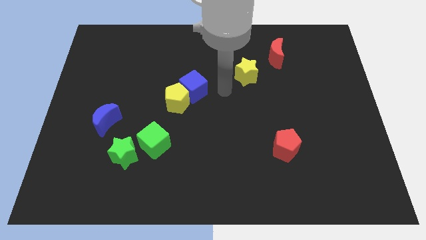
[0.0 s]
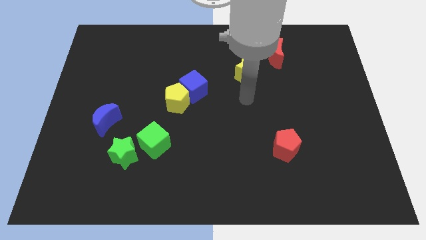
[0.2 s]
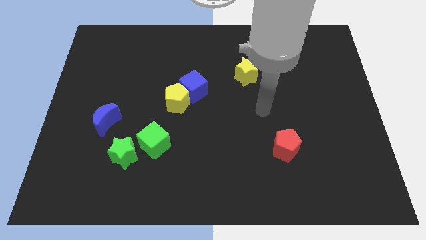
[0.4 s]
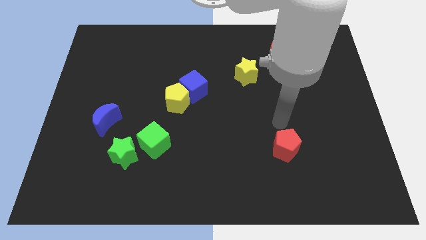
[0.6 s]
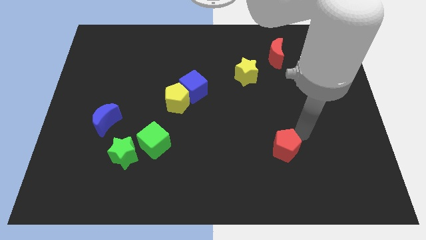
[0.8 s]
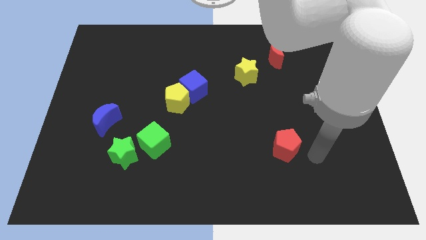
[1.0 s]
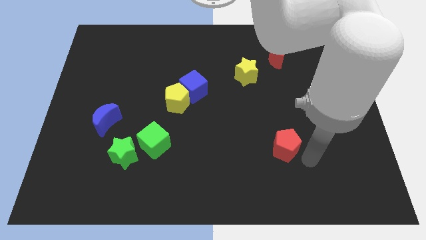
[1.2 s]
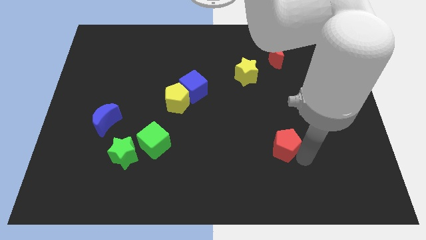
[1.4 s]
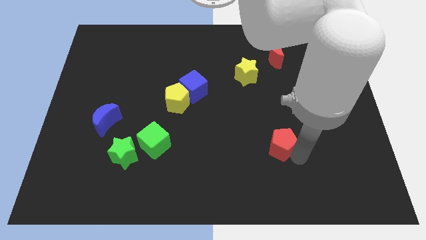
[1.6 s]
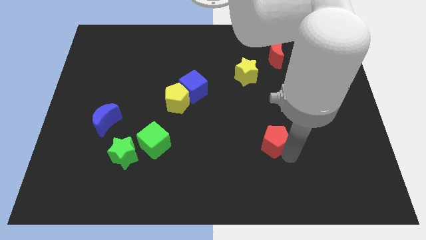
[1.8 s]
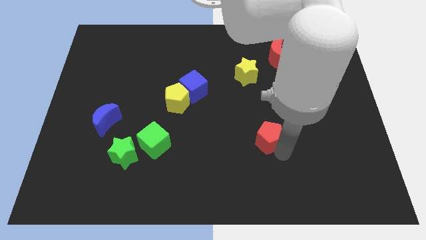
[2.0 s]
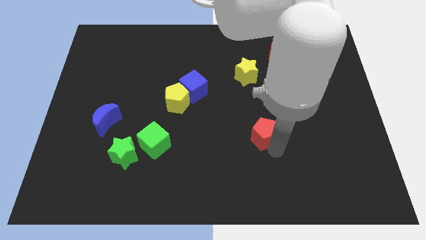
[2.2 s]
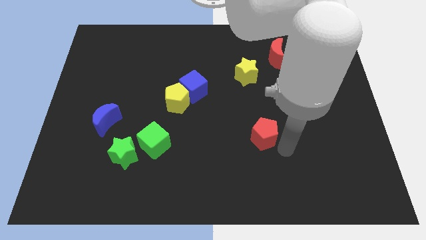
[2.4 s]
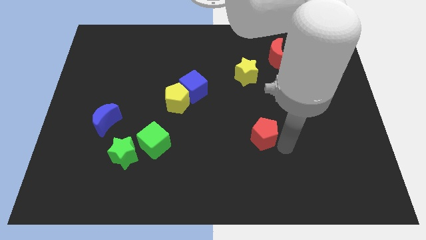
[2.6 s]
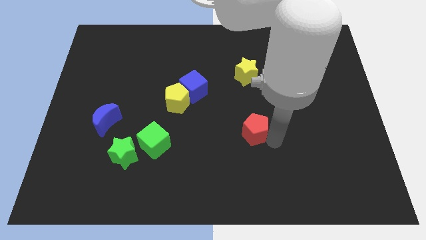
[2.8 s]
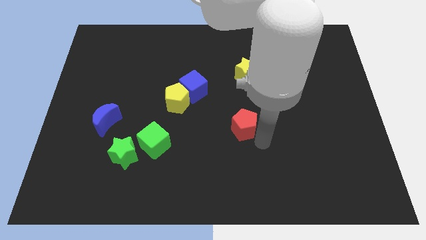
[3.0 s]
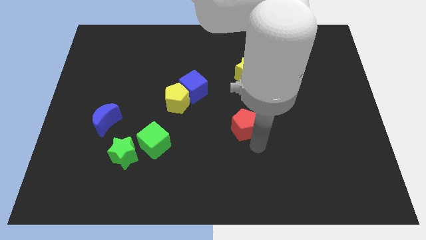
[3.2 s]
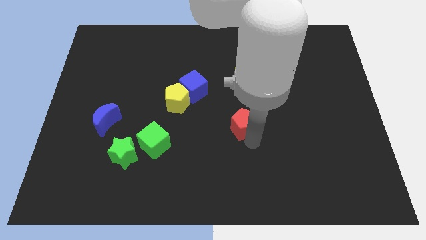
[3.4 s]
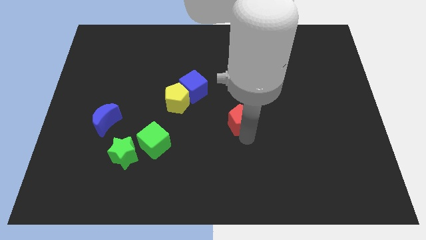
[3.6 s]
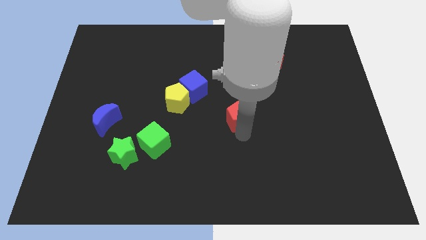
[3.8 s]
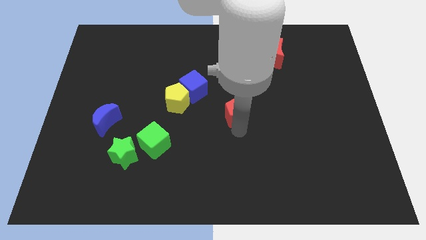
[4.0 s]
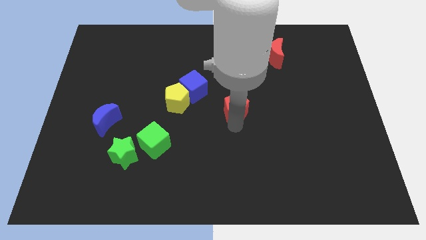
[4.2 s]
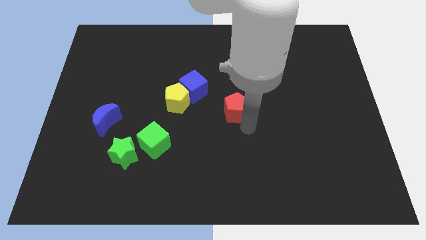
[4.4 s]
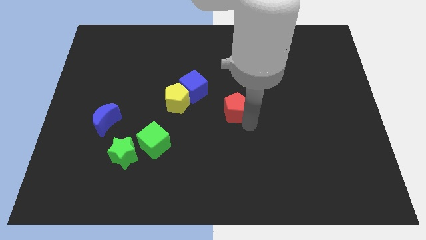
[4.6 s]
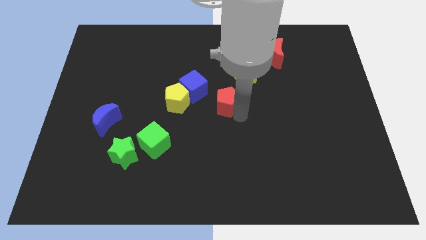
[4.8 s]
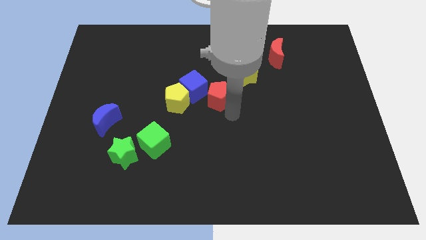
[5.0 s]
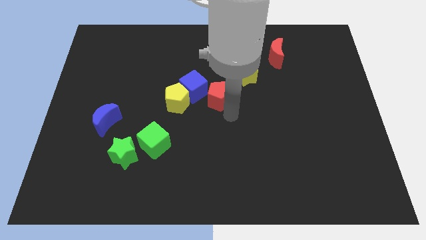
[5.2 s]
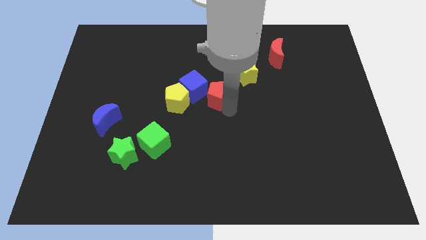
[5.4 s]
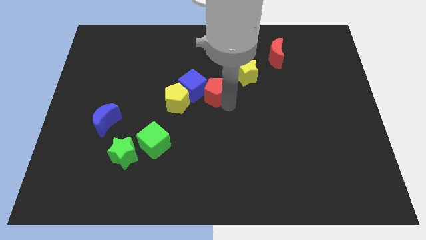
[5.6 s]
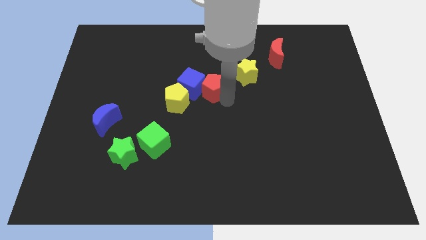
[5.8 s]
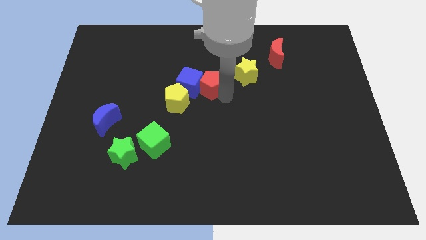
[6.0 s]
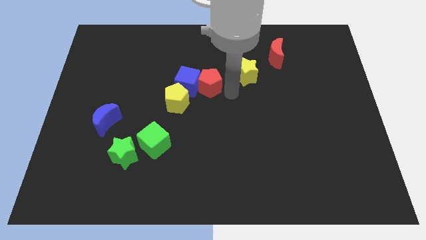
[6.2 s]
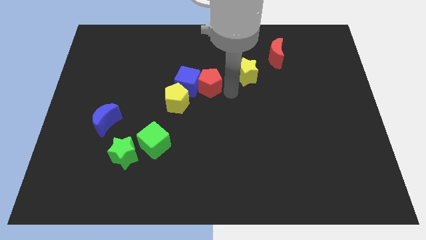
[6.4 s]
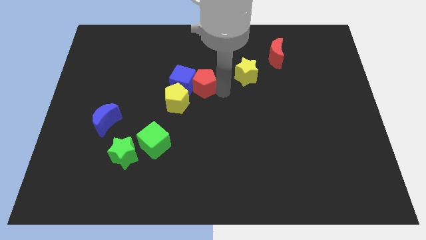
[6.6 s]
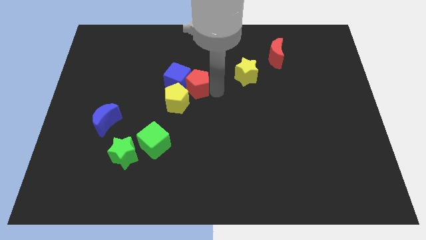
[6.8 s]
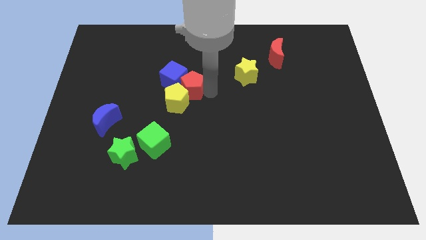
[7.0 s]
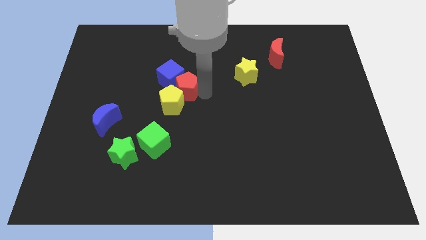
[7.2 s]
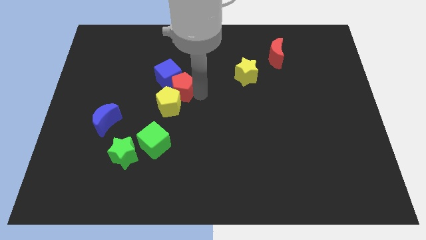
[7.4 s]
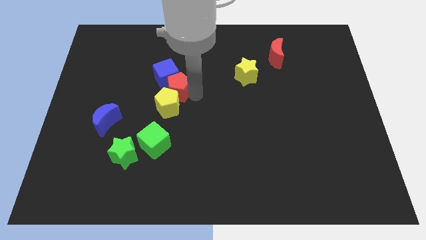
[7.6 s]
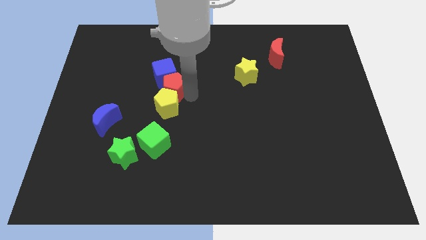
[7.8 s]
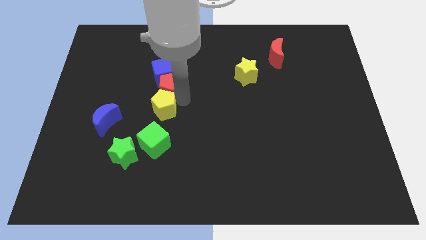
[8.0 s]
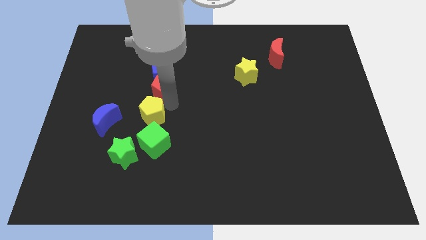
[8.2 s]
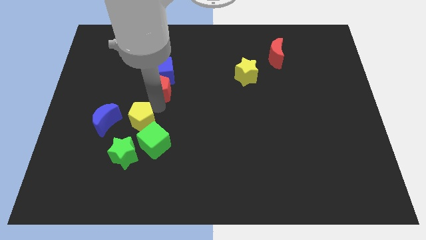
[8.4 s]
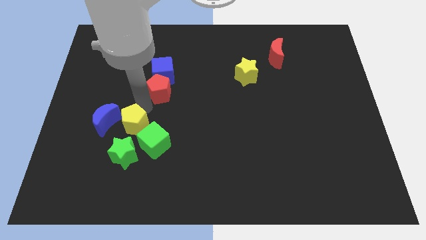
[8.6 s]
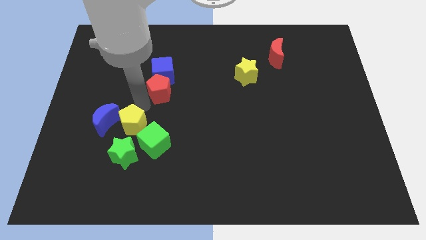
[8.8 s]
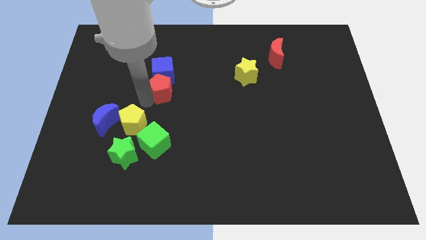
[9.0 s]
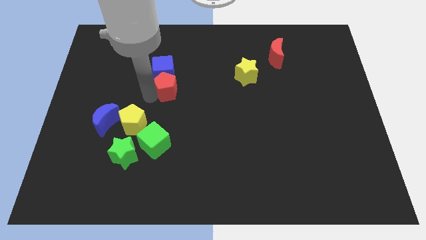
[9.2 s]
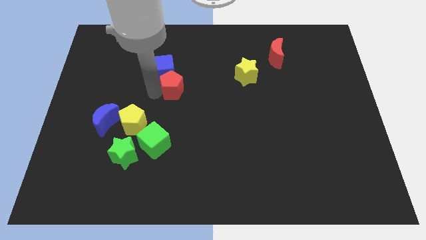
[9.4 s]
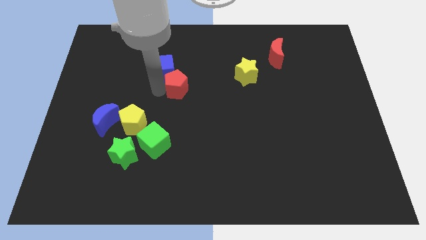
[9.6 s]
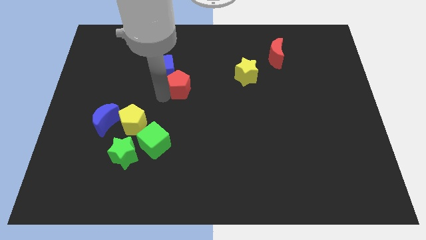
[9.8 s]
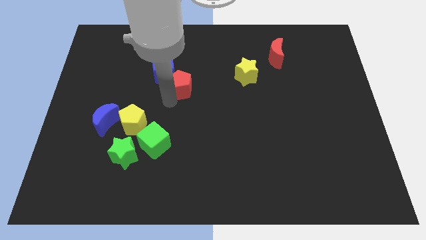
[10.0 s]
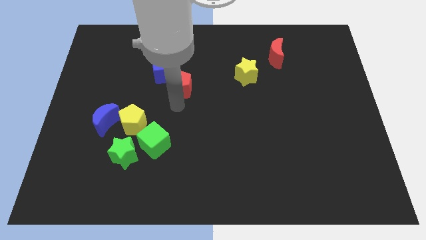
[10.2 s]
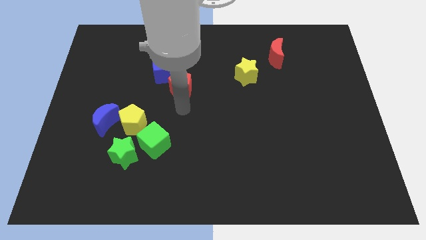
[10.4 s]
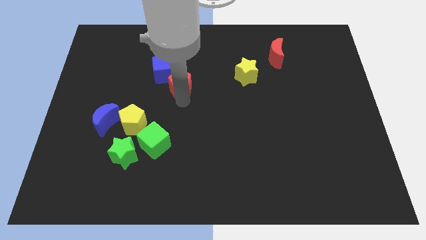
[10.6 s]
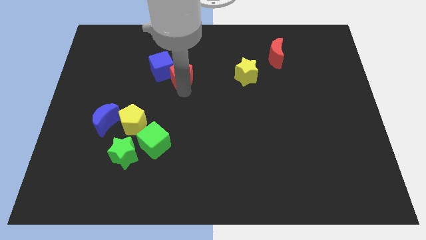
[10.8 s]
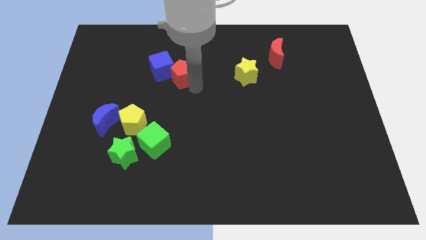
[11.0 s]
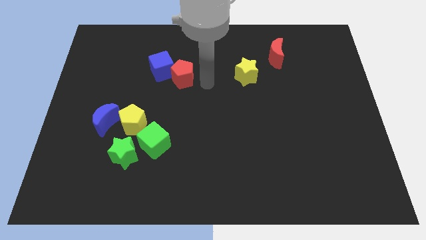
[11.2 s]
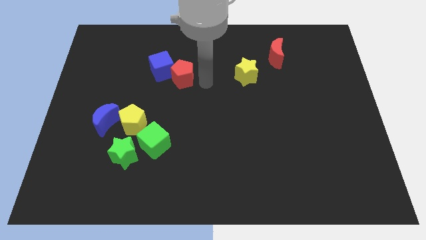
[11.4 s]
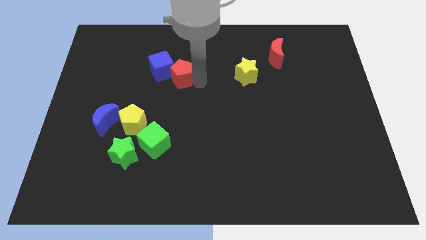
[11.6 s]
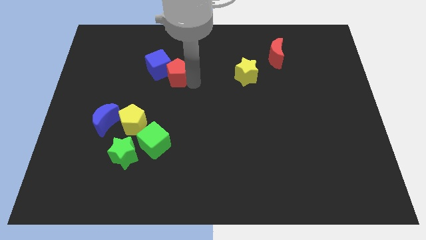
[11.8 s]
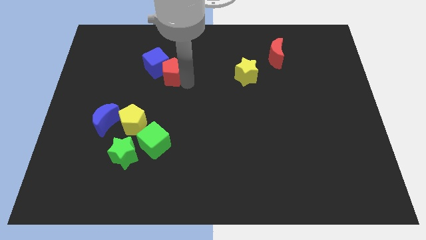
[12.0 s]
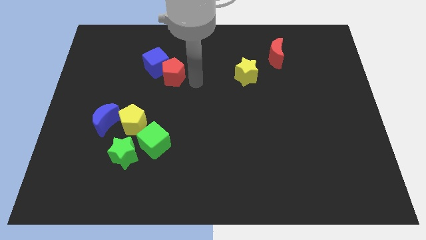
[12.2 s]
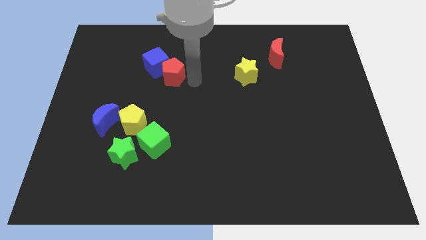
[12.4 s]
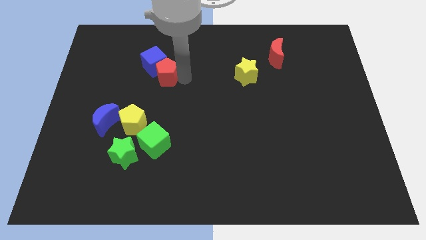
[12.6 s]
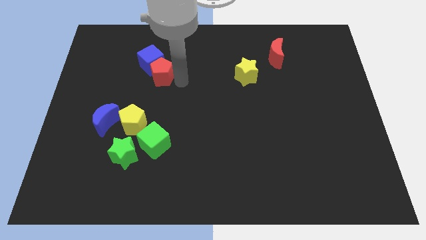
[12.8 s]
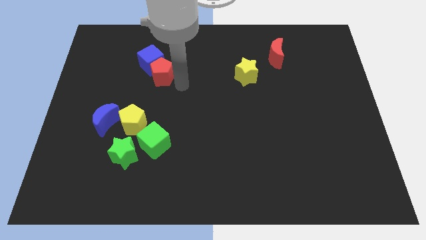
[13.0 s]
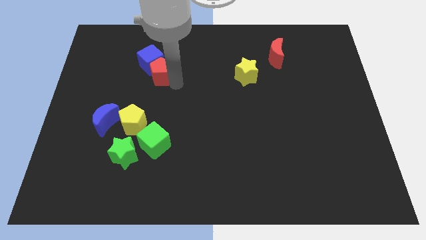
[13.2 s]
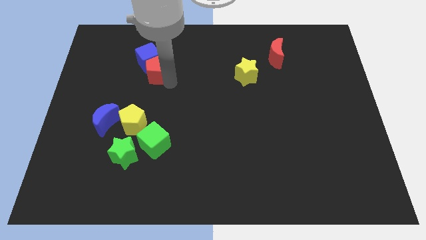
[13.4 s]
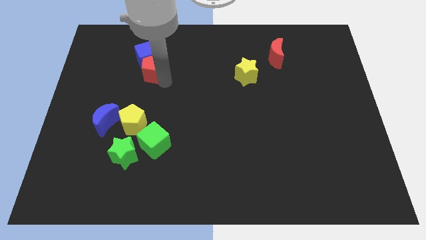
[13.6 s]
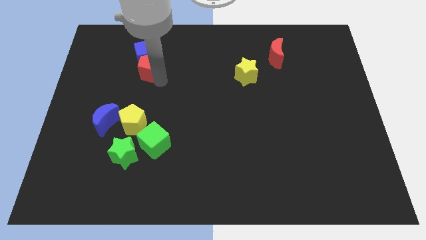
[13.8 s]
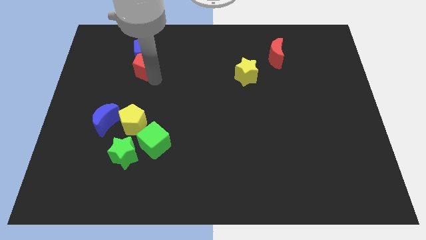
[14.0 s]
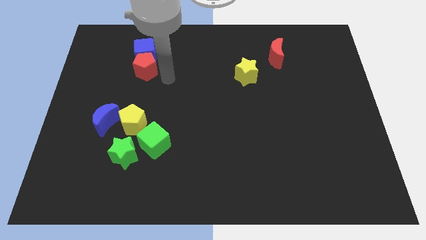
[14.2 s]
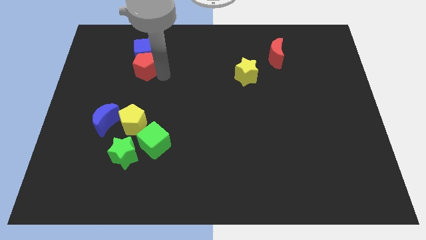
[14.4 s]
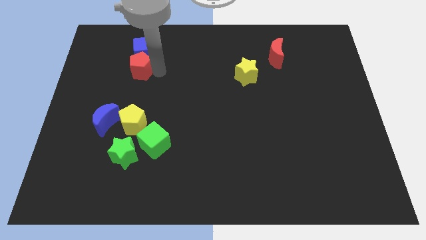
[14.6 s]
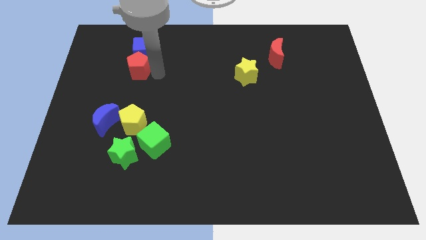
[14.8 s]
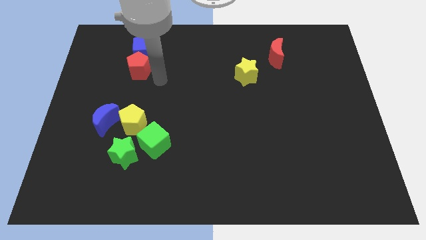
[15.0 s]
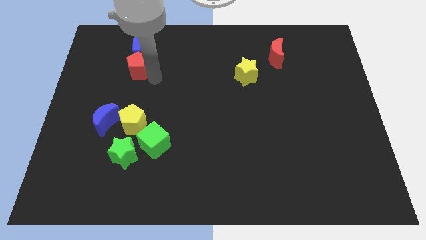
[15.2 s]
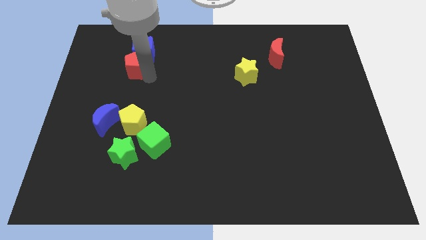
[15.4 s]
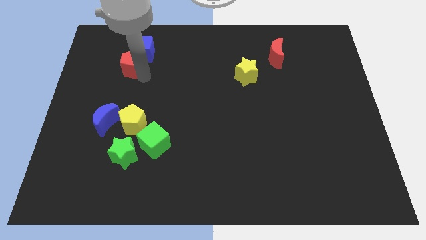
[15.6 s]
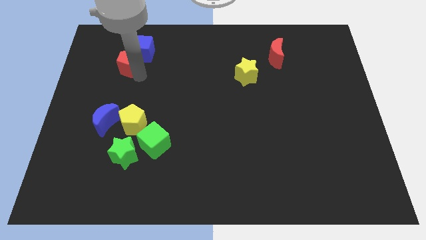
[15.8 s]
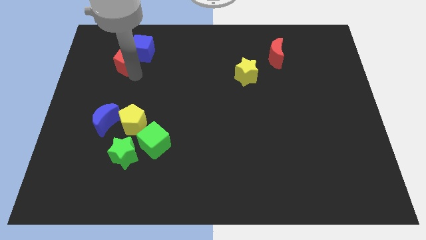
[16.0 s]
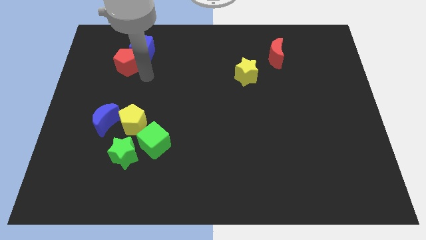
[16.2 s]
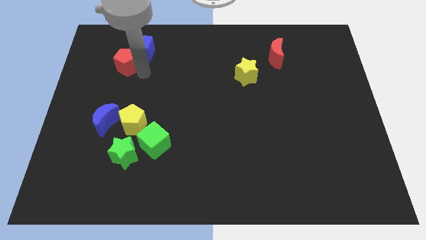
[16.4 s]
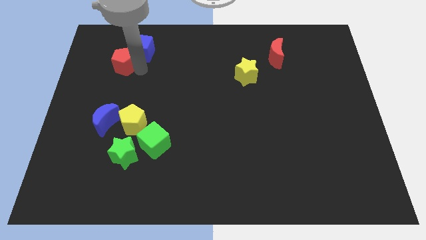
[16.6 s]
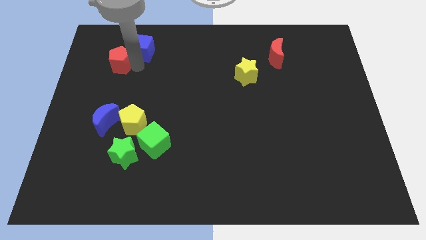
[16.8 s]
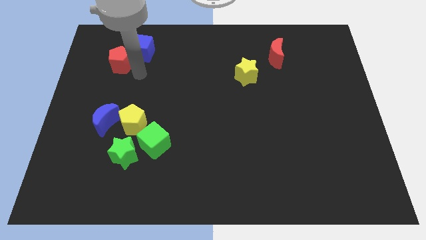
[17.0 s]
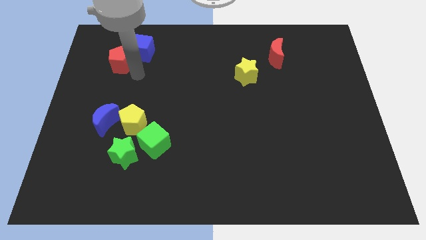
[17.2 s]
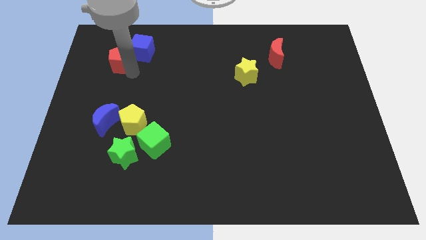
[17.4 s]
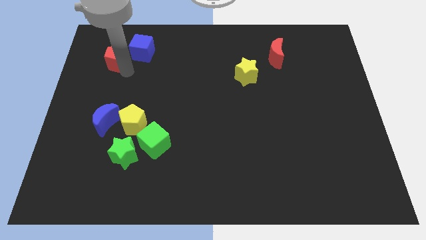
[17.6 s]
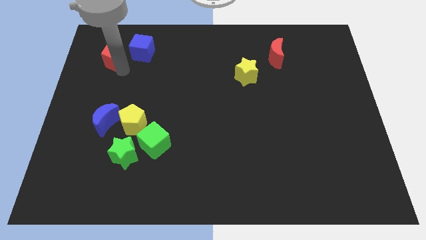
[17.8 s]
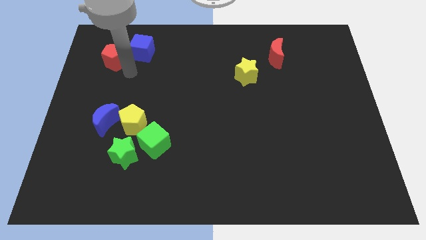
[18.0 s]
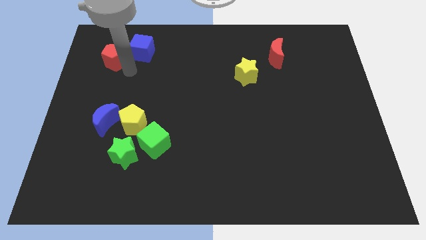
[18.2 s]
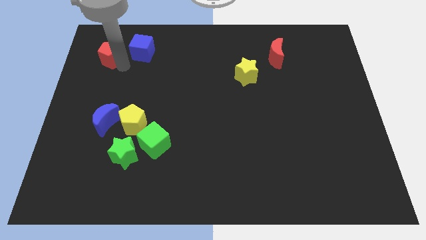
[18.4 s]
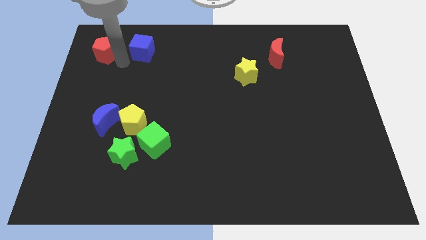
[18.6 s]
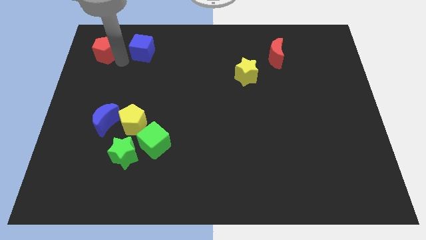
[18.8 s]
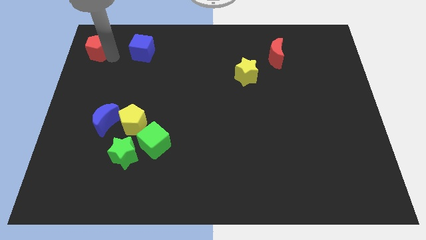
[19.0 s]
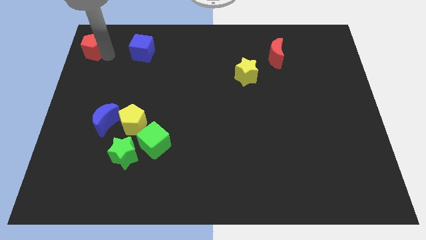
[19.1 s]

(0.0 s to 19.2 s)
slide the red pentagon to the upper left corner
